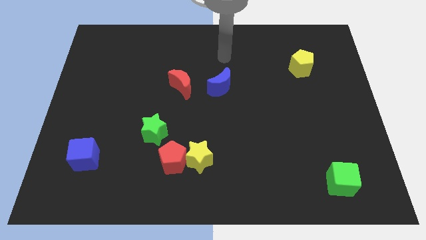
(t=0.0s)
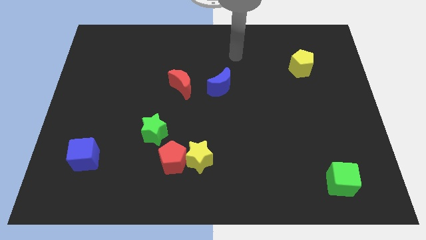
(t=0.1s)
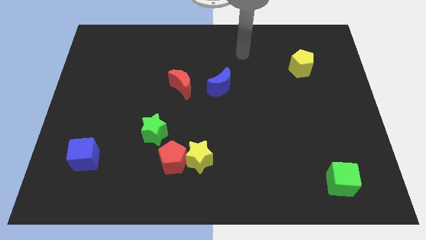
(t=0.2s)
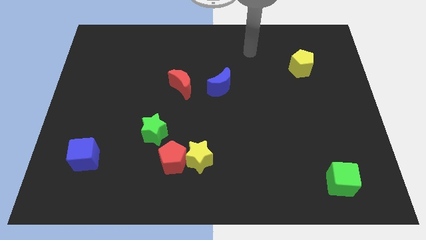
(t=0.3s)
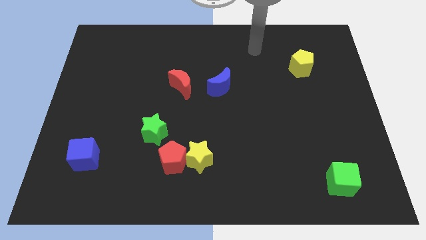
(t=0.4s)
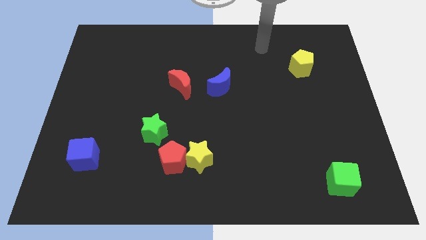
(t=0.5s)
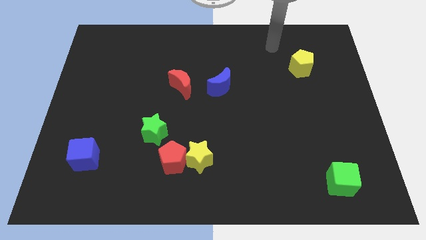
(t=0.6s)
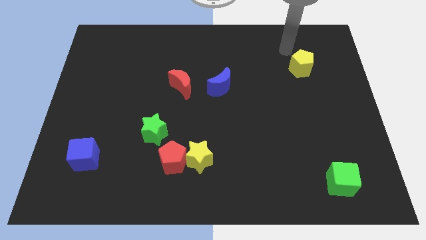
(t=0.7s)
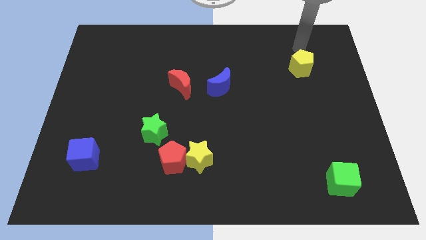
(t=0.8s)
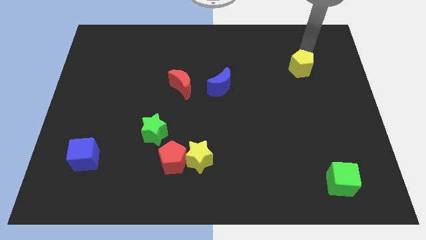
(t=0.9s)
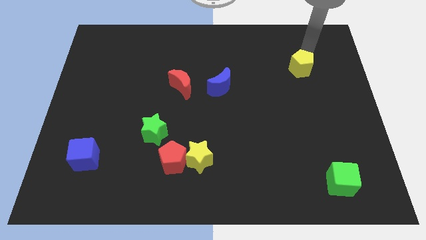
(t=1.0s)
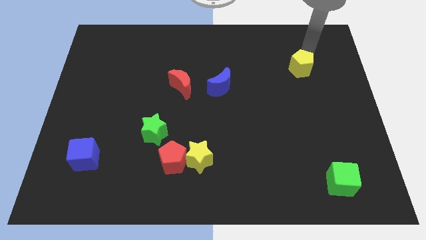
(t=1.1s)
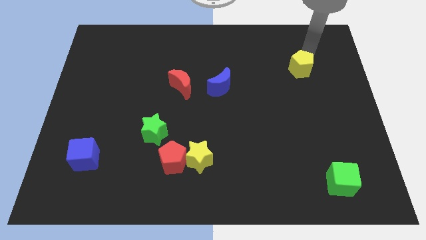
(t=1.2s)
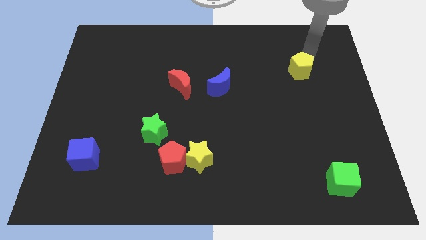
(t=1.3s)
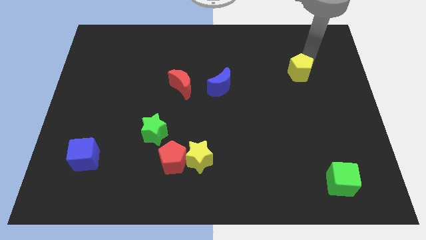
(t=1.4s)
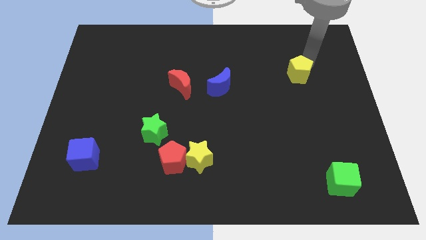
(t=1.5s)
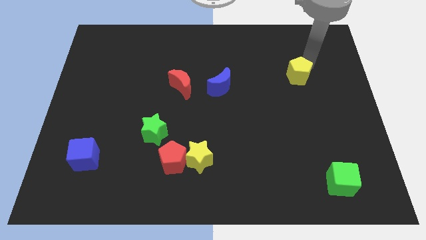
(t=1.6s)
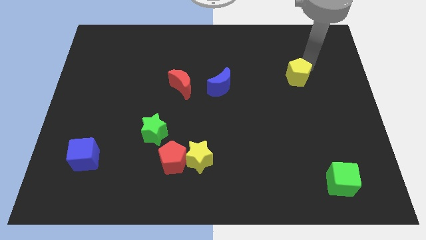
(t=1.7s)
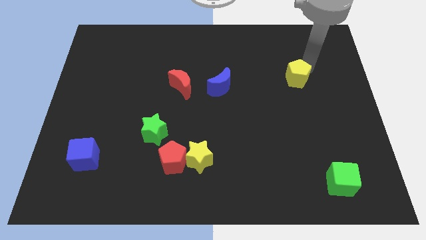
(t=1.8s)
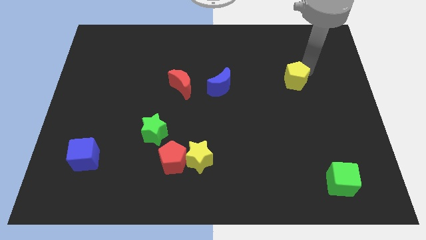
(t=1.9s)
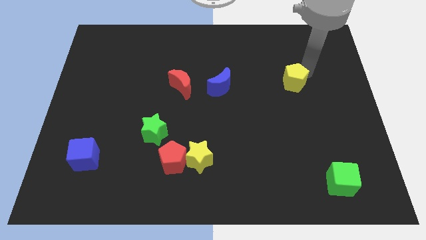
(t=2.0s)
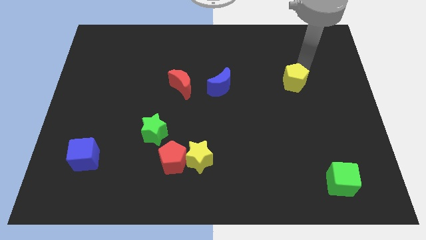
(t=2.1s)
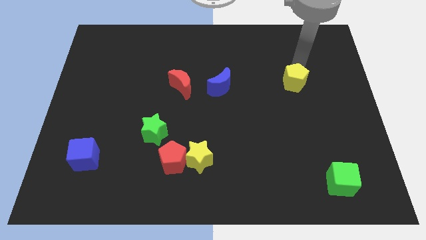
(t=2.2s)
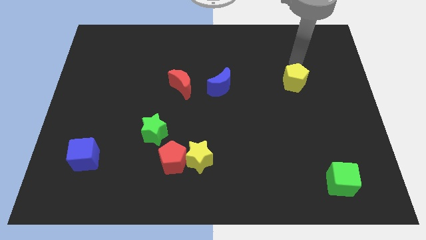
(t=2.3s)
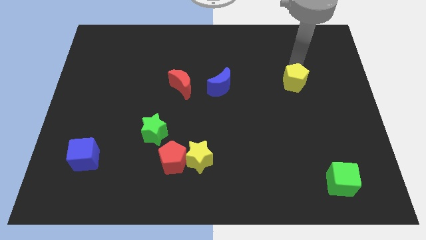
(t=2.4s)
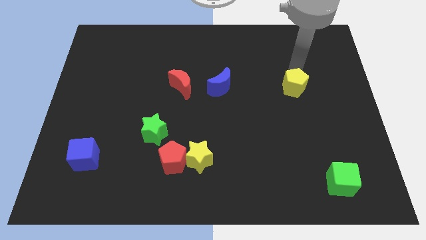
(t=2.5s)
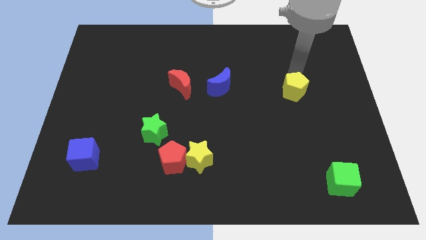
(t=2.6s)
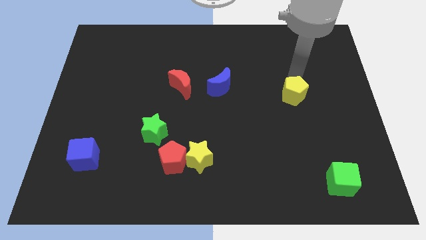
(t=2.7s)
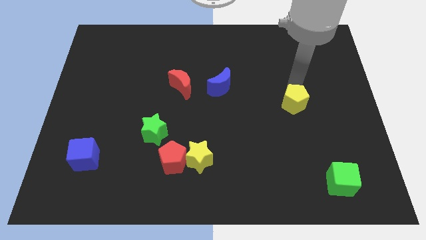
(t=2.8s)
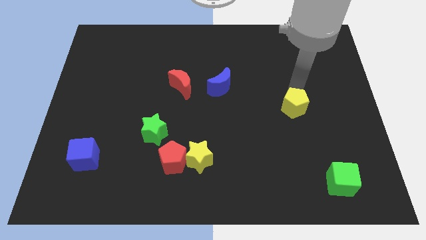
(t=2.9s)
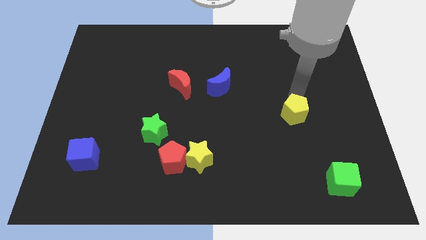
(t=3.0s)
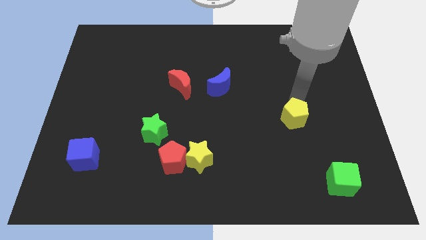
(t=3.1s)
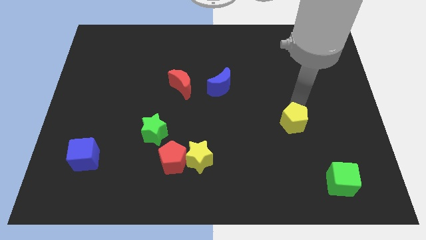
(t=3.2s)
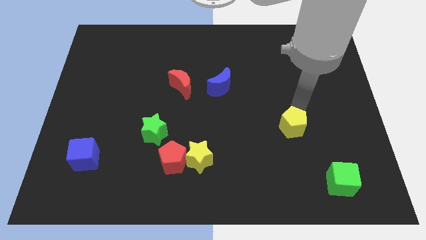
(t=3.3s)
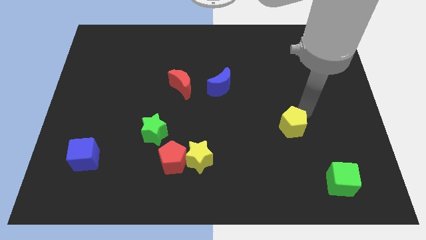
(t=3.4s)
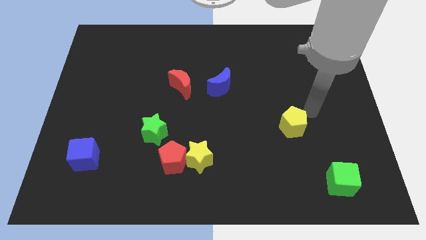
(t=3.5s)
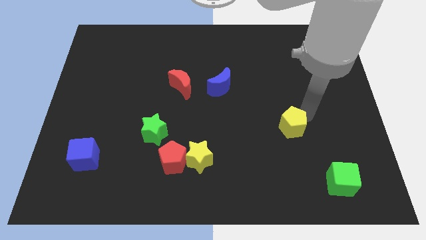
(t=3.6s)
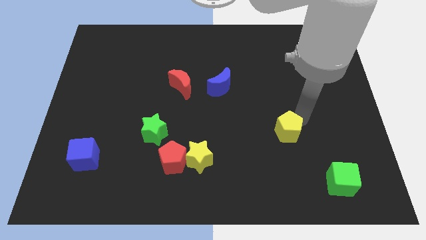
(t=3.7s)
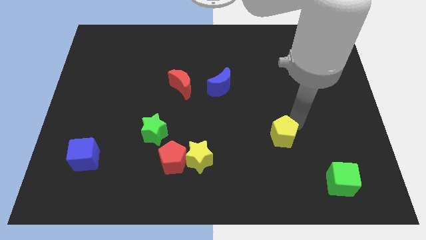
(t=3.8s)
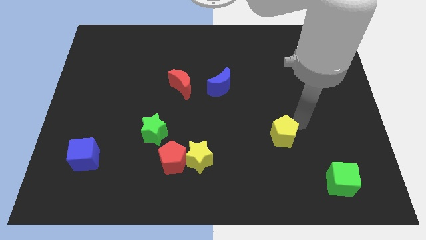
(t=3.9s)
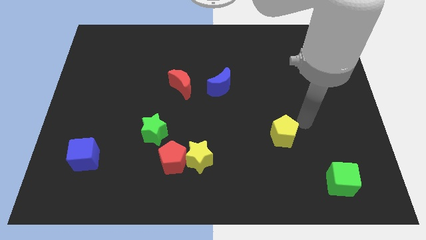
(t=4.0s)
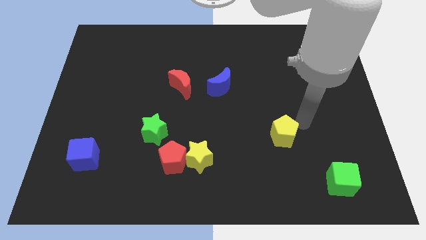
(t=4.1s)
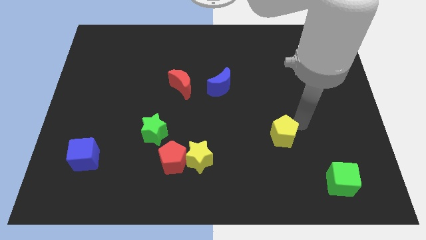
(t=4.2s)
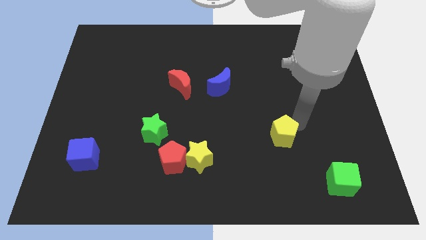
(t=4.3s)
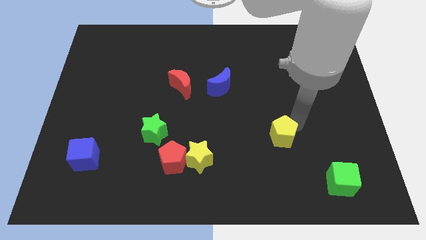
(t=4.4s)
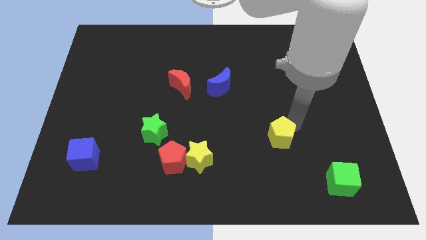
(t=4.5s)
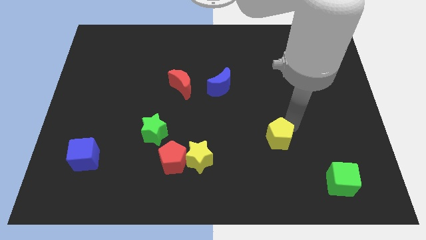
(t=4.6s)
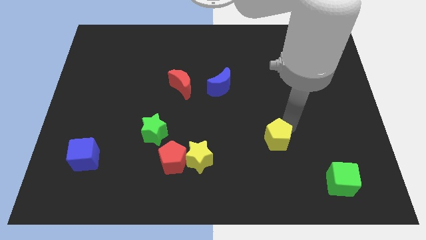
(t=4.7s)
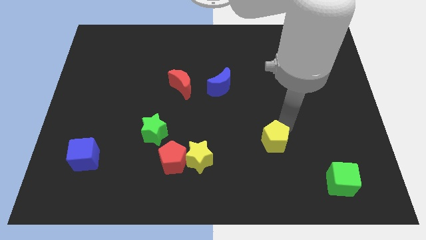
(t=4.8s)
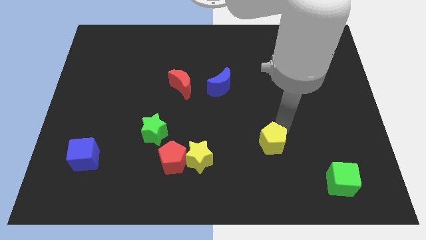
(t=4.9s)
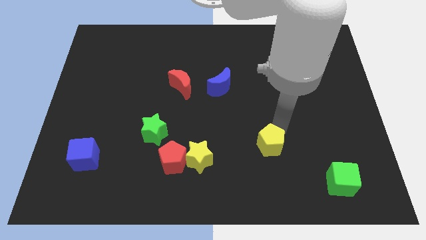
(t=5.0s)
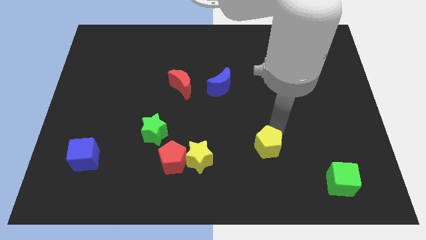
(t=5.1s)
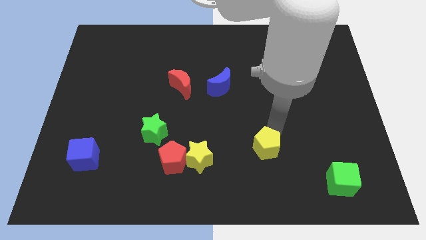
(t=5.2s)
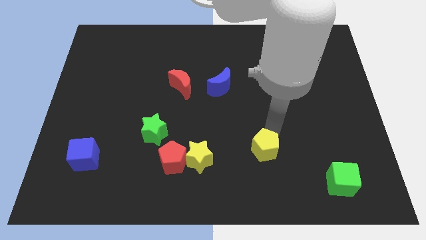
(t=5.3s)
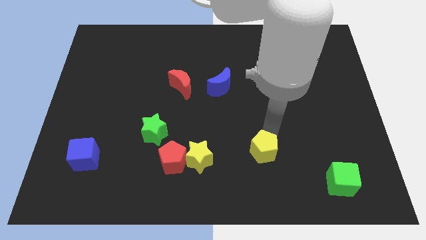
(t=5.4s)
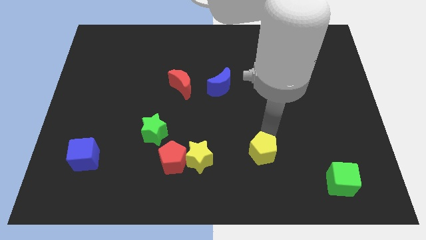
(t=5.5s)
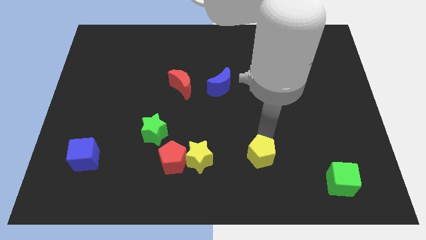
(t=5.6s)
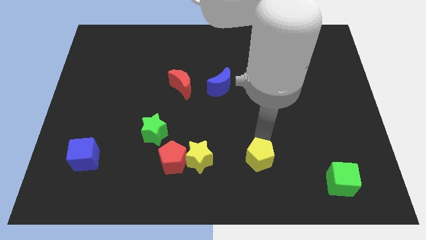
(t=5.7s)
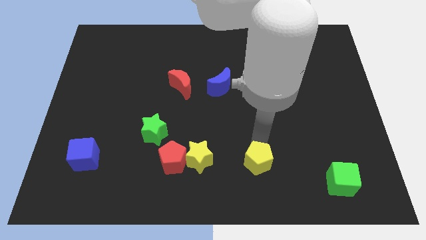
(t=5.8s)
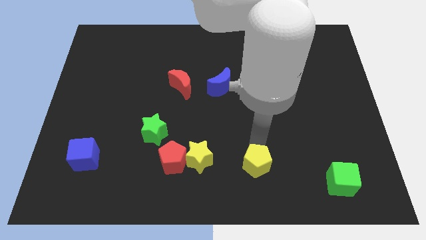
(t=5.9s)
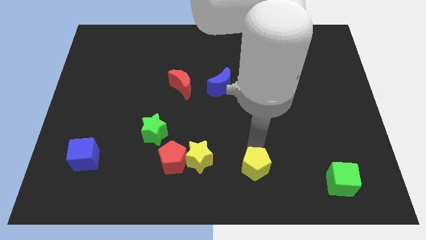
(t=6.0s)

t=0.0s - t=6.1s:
move the yellow pentagon to the bottom side

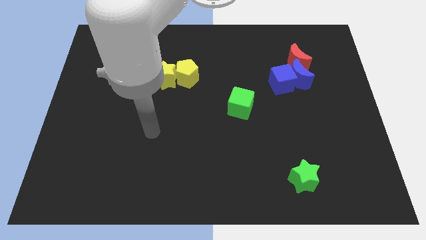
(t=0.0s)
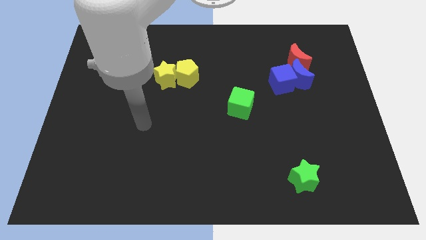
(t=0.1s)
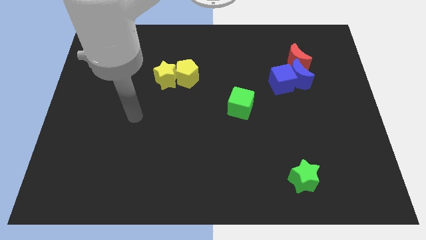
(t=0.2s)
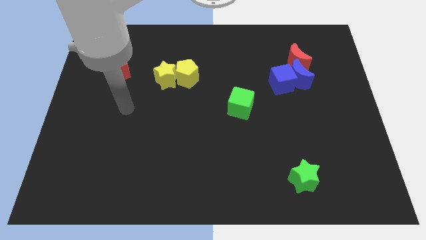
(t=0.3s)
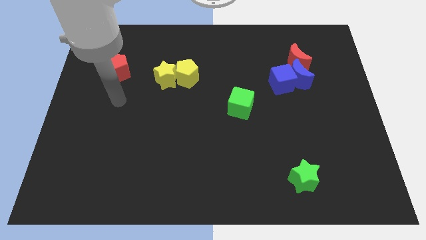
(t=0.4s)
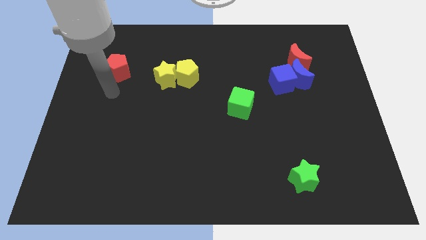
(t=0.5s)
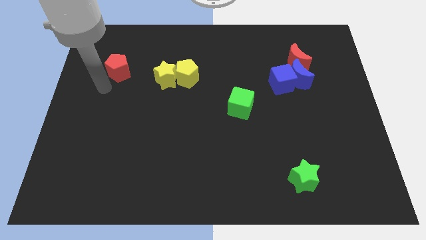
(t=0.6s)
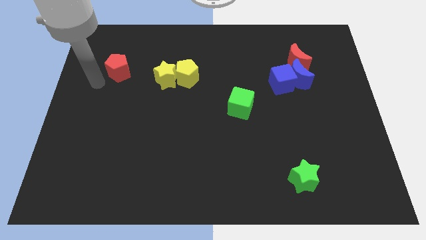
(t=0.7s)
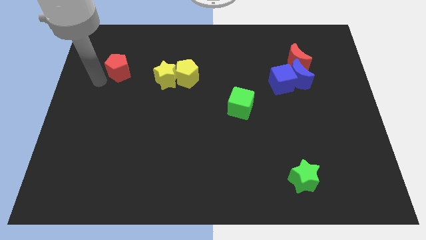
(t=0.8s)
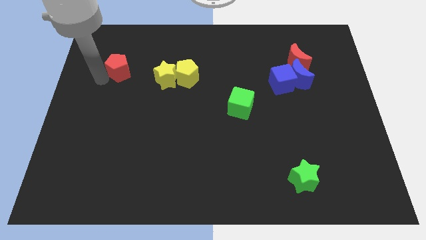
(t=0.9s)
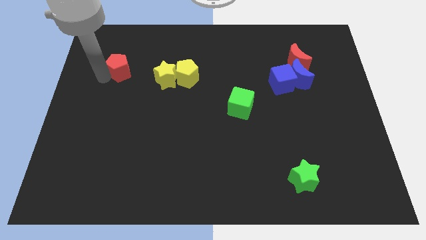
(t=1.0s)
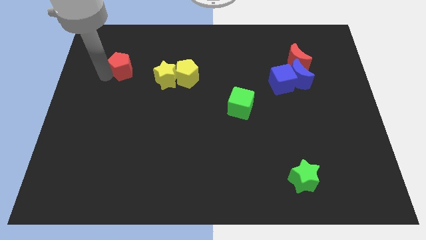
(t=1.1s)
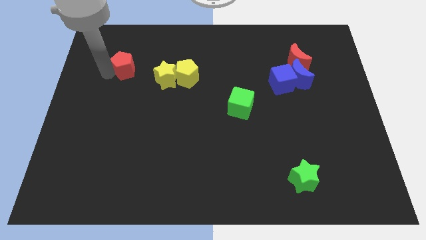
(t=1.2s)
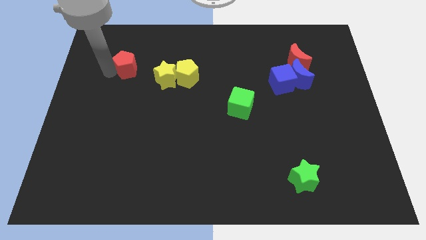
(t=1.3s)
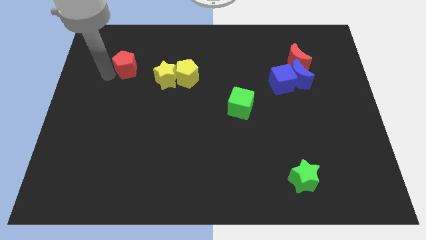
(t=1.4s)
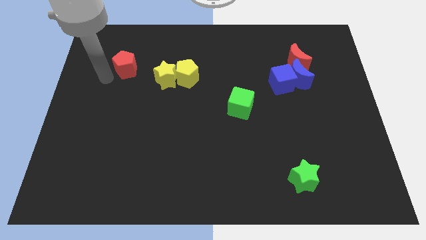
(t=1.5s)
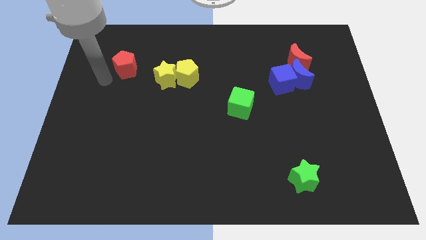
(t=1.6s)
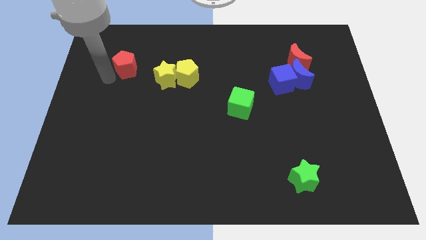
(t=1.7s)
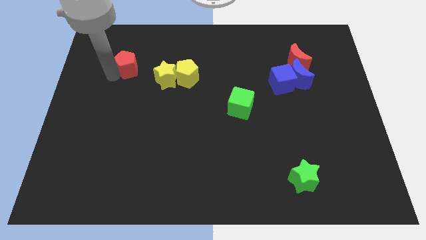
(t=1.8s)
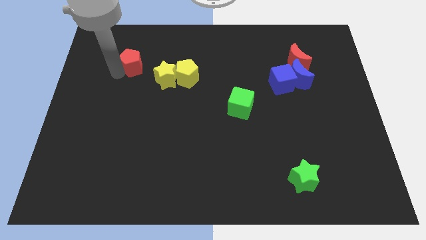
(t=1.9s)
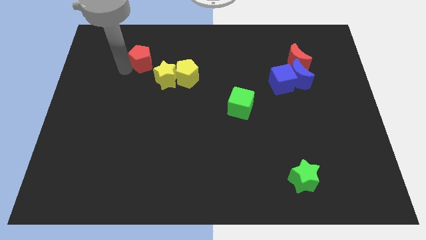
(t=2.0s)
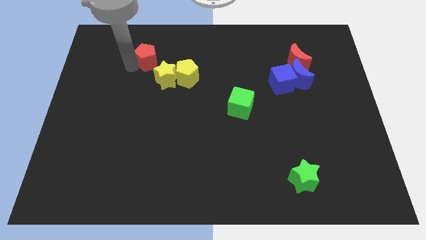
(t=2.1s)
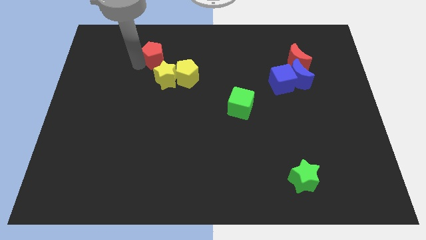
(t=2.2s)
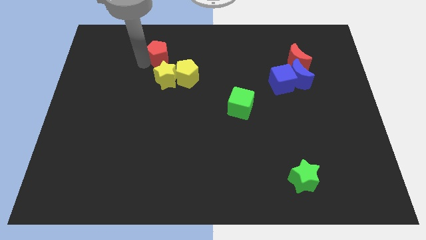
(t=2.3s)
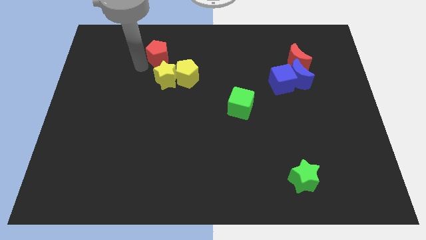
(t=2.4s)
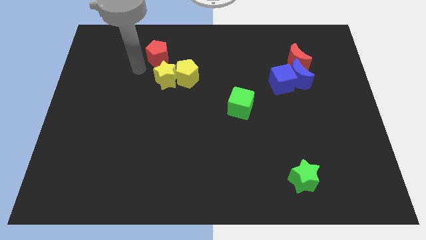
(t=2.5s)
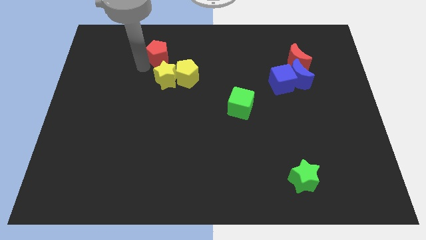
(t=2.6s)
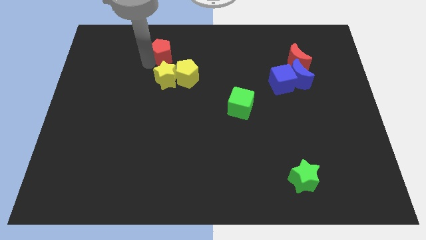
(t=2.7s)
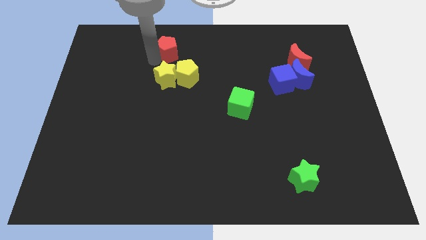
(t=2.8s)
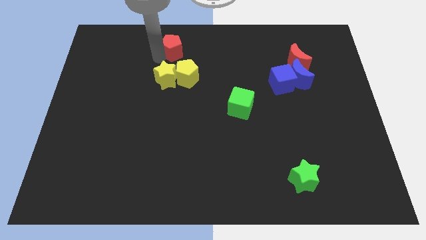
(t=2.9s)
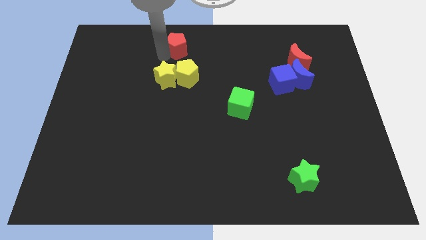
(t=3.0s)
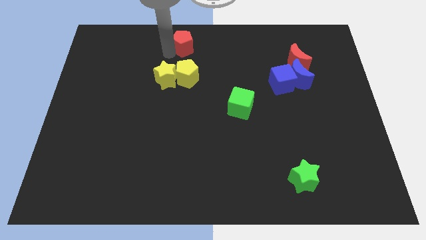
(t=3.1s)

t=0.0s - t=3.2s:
slide the red pentagon to the top side
